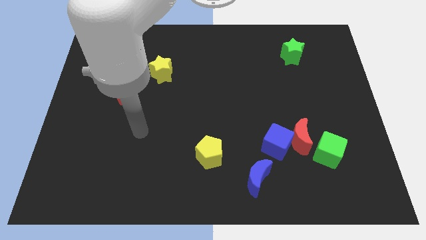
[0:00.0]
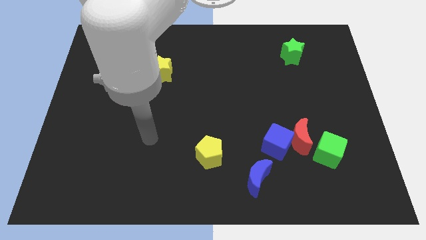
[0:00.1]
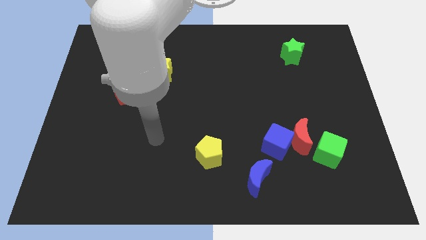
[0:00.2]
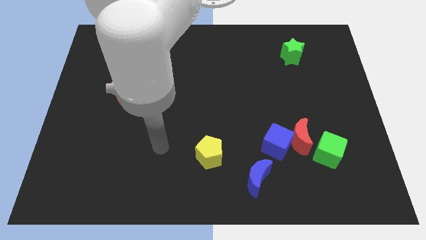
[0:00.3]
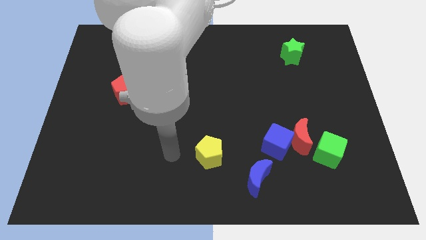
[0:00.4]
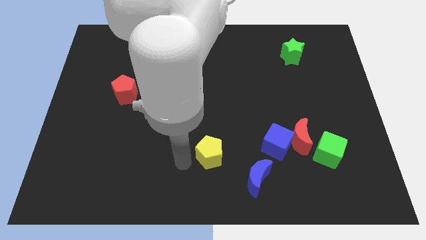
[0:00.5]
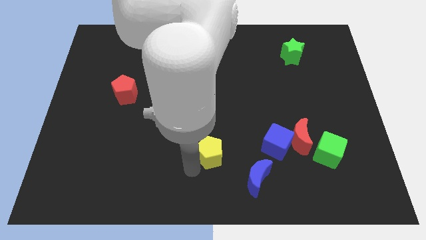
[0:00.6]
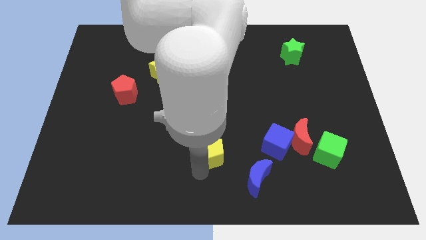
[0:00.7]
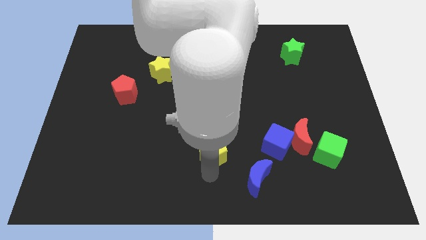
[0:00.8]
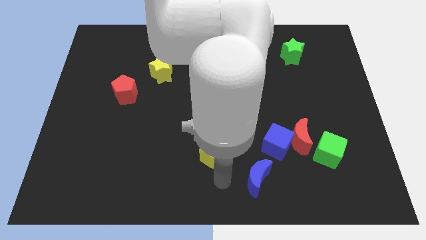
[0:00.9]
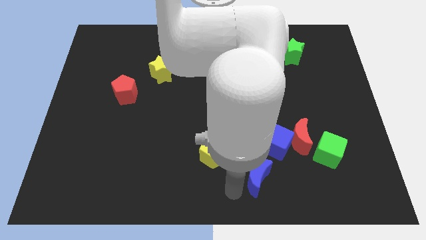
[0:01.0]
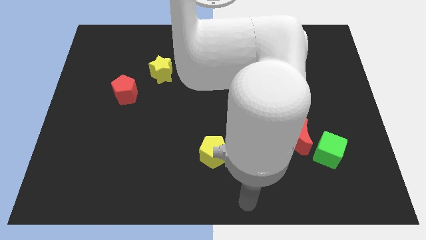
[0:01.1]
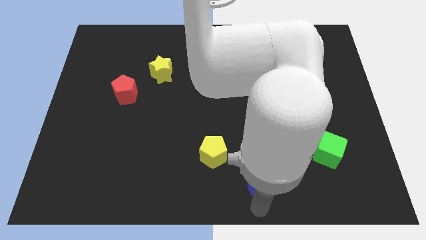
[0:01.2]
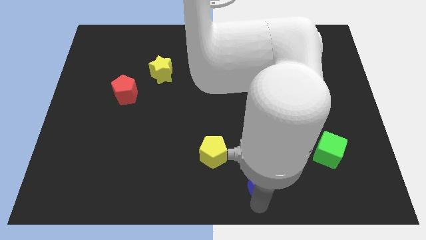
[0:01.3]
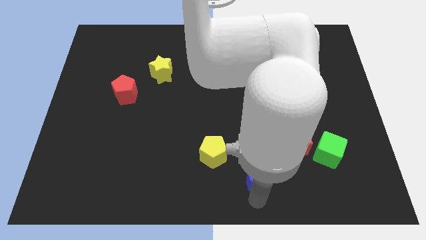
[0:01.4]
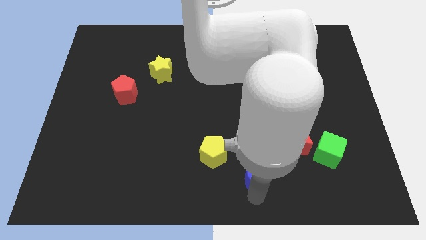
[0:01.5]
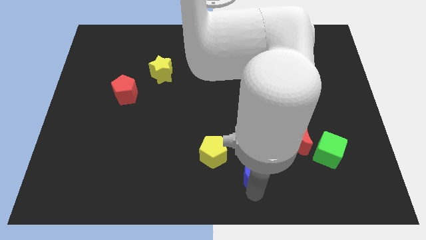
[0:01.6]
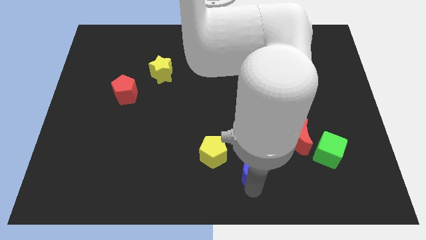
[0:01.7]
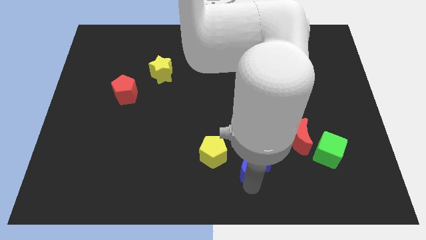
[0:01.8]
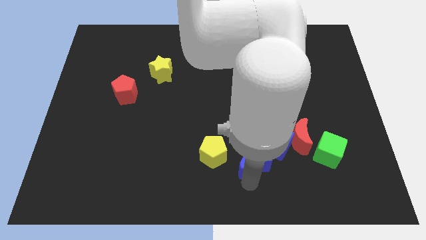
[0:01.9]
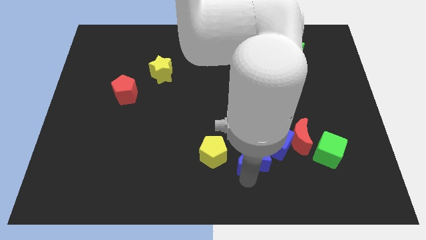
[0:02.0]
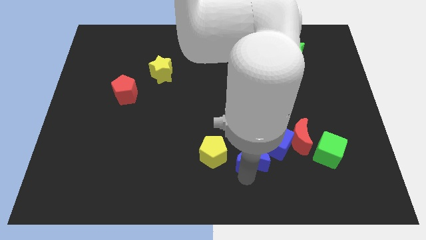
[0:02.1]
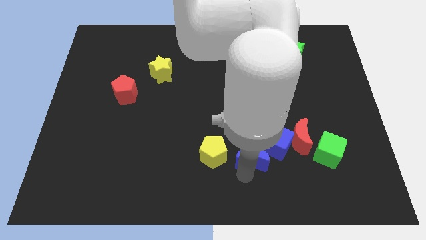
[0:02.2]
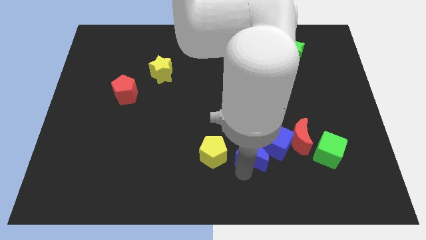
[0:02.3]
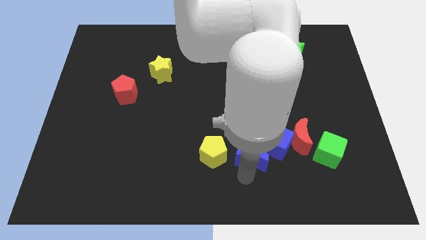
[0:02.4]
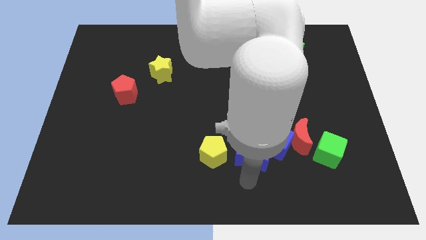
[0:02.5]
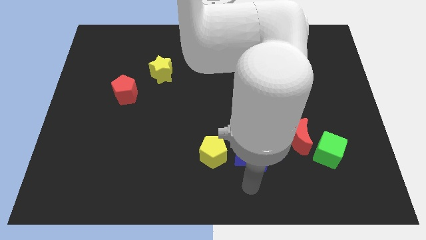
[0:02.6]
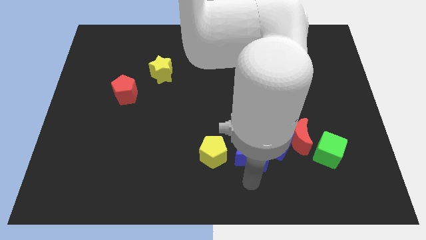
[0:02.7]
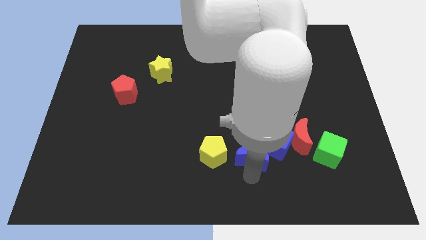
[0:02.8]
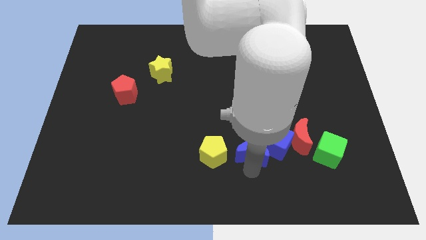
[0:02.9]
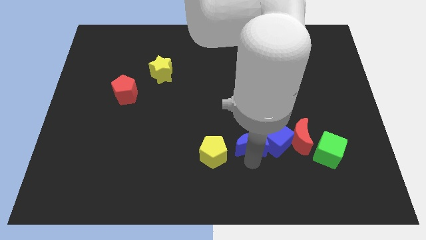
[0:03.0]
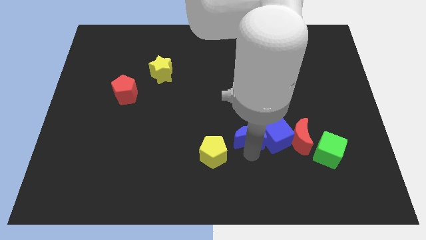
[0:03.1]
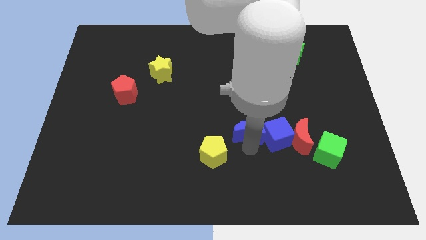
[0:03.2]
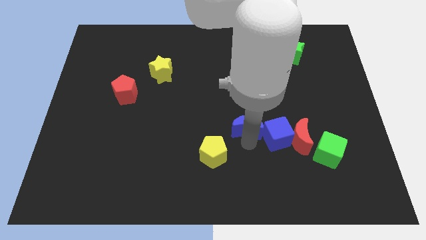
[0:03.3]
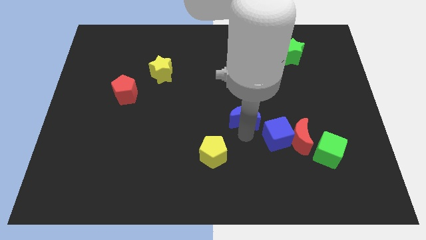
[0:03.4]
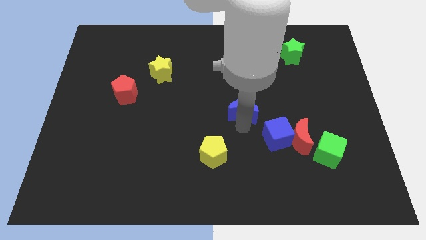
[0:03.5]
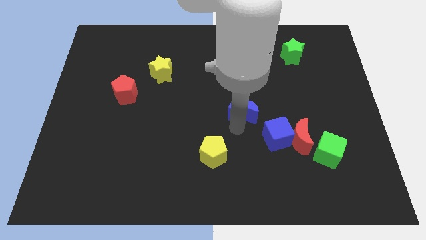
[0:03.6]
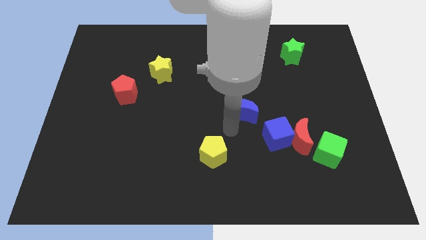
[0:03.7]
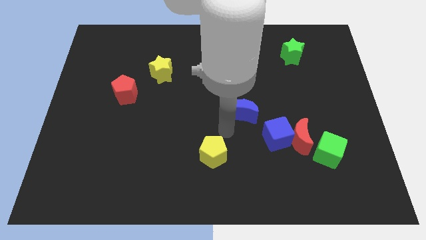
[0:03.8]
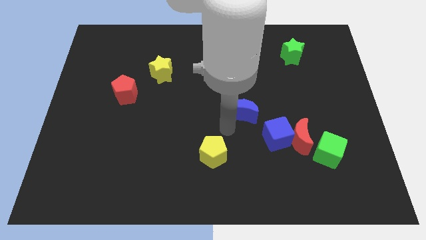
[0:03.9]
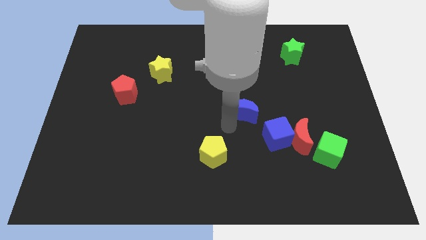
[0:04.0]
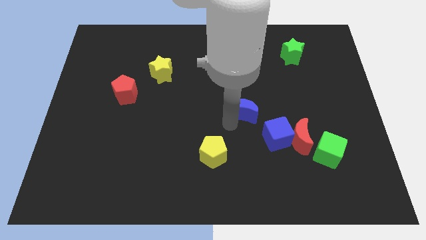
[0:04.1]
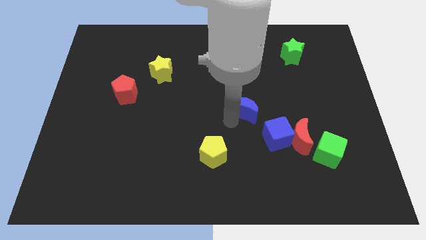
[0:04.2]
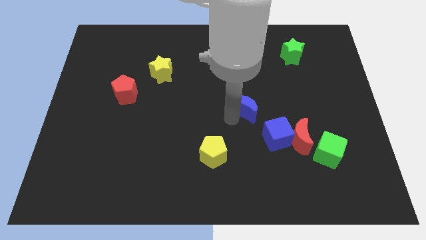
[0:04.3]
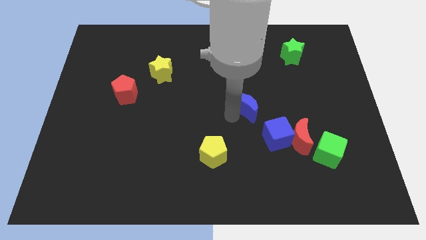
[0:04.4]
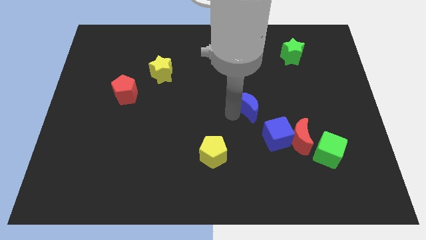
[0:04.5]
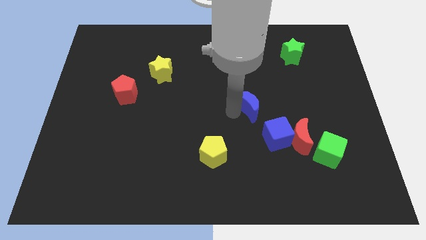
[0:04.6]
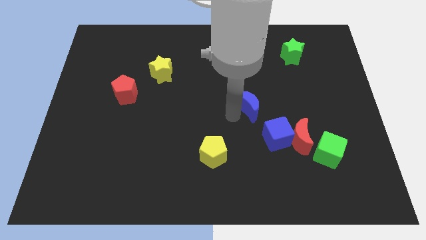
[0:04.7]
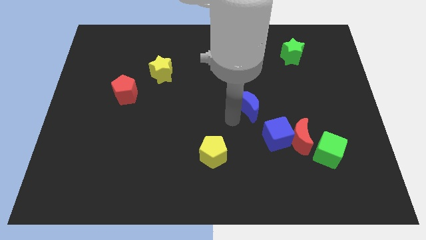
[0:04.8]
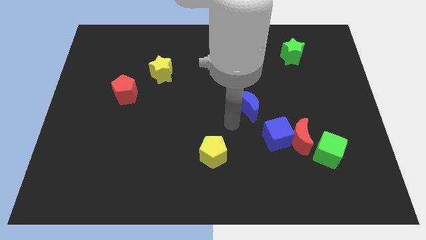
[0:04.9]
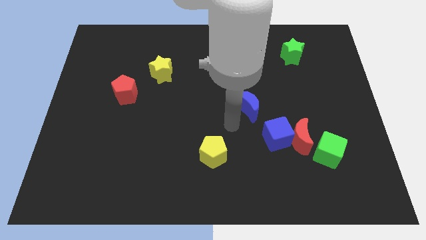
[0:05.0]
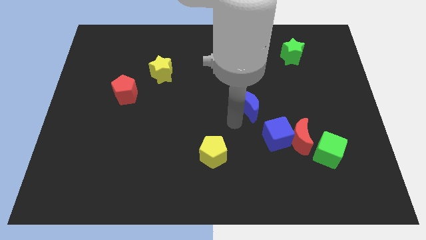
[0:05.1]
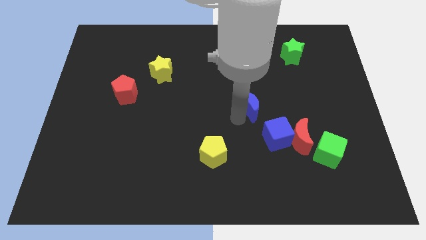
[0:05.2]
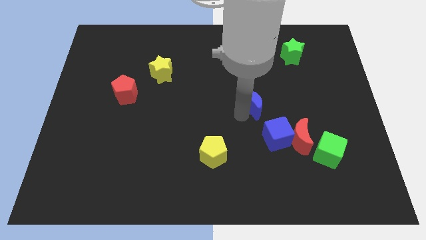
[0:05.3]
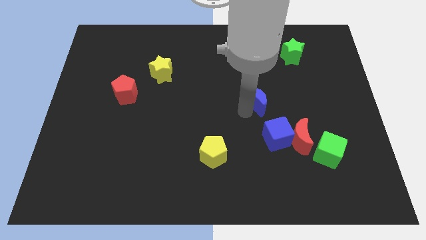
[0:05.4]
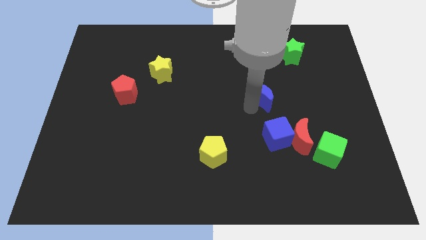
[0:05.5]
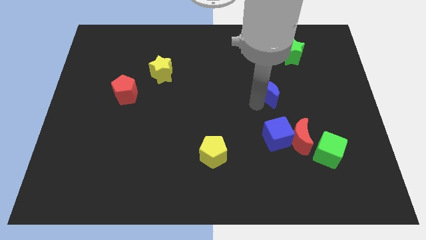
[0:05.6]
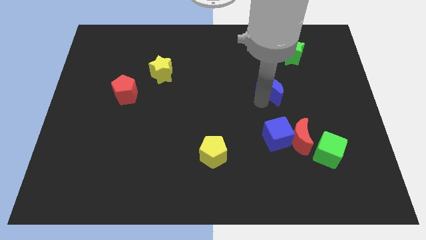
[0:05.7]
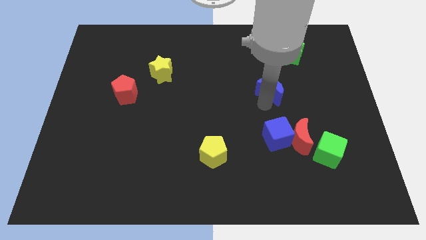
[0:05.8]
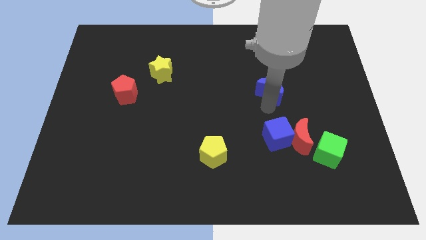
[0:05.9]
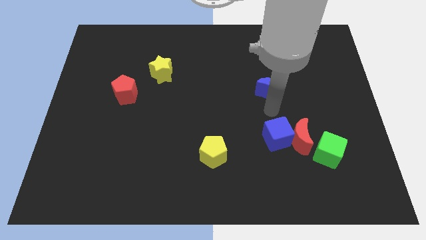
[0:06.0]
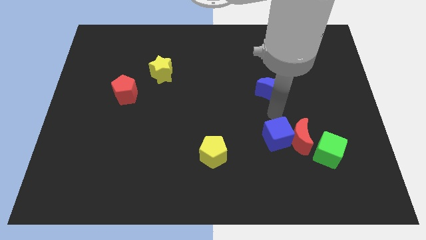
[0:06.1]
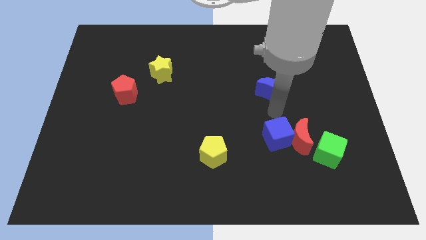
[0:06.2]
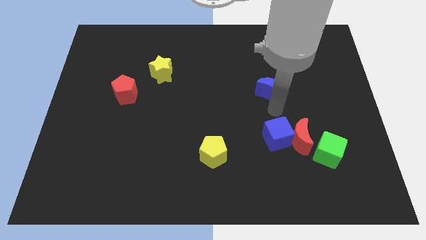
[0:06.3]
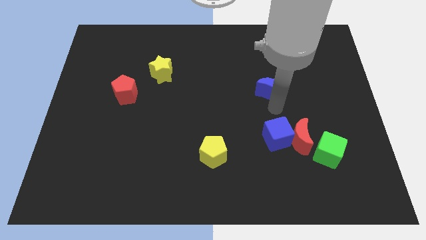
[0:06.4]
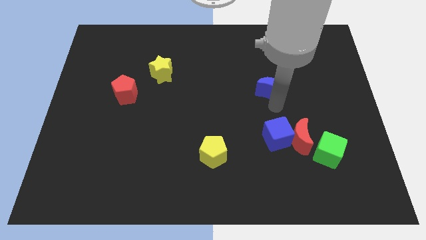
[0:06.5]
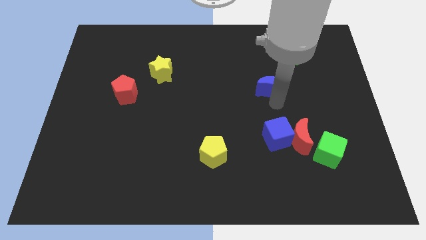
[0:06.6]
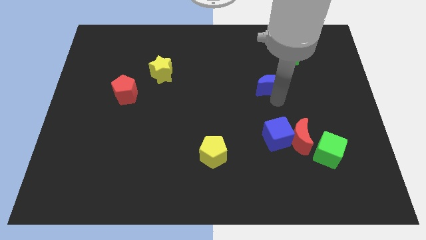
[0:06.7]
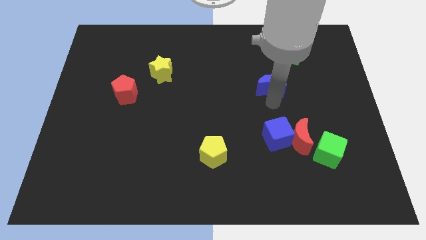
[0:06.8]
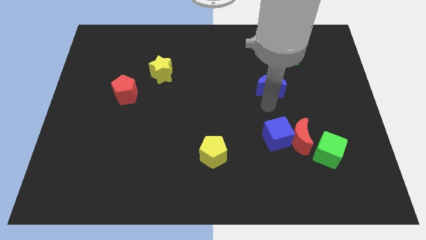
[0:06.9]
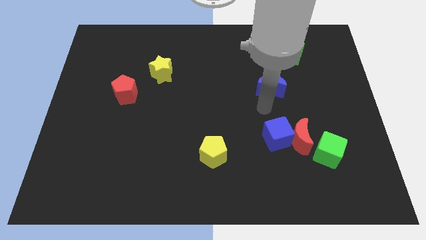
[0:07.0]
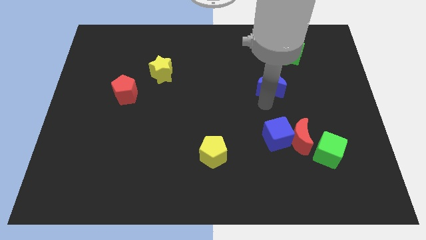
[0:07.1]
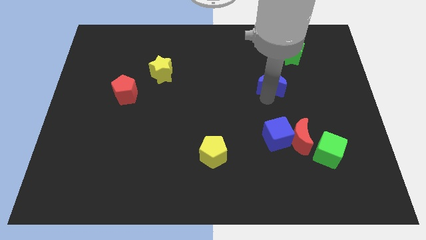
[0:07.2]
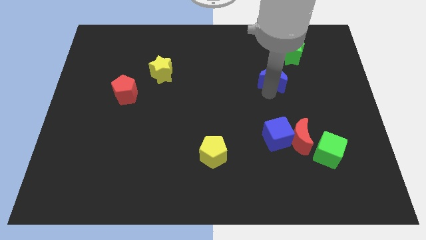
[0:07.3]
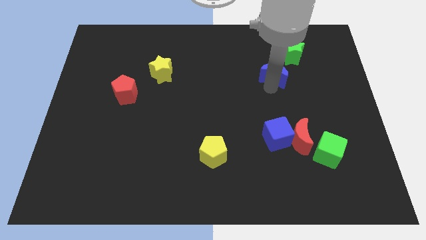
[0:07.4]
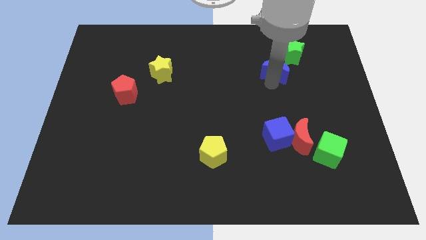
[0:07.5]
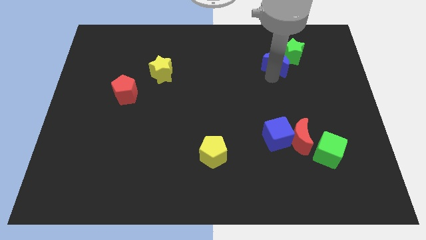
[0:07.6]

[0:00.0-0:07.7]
push the blue moon next to the green star
